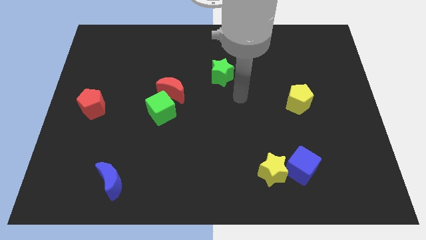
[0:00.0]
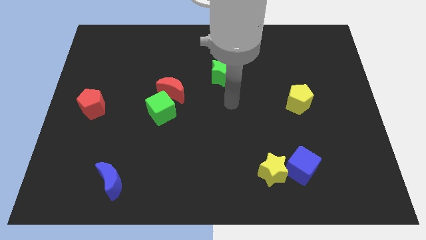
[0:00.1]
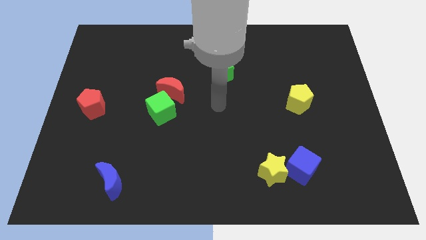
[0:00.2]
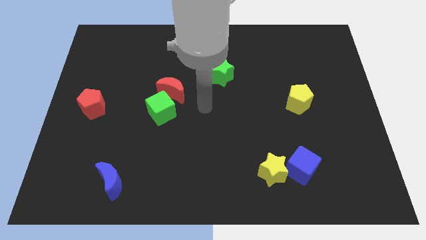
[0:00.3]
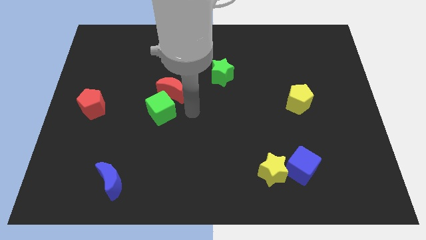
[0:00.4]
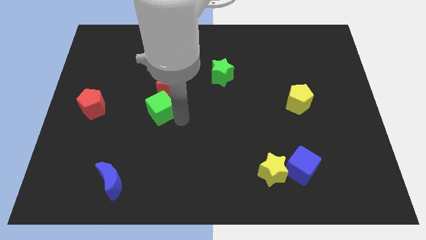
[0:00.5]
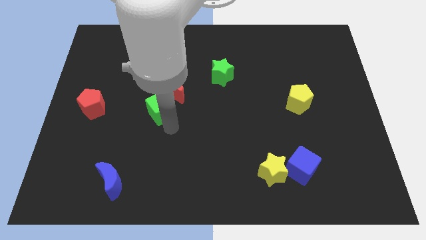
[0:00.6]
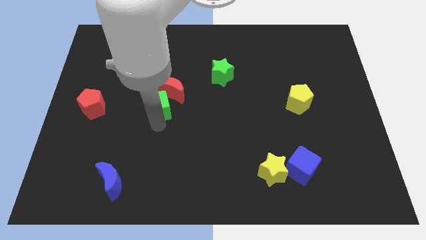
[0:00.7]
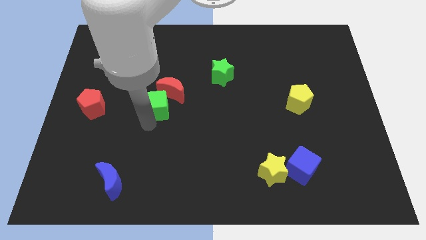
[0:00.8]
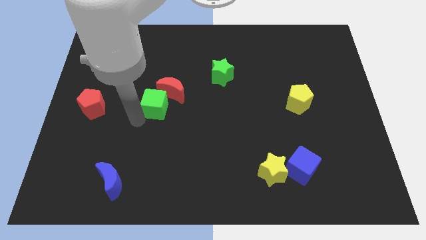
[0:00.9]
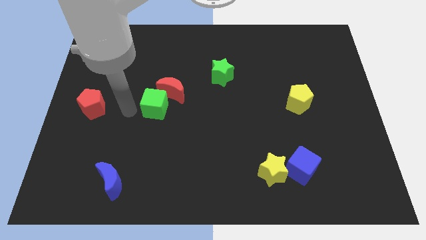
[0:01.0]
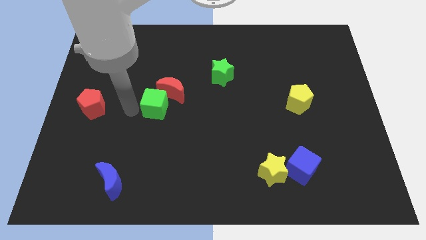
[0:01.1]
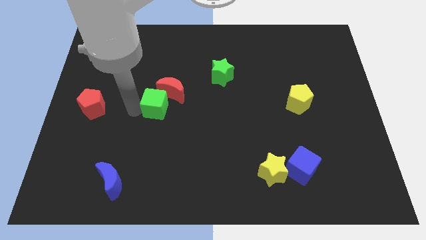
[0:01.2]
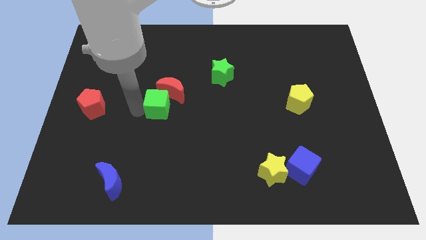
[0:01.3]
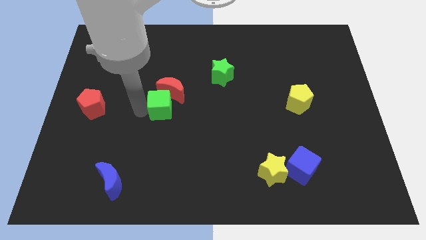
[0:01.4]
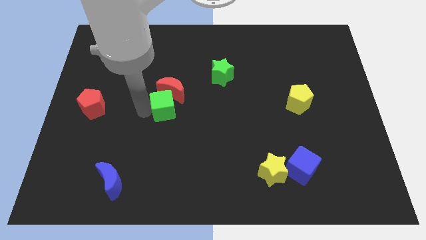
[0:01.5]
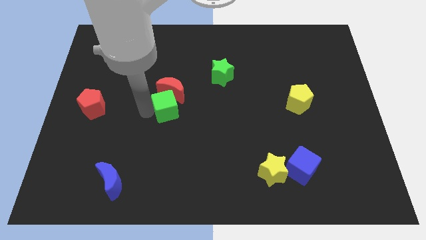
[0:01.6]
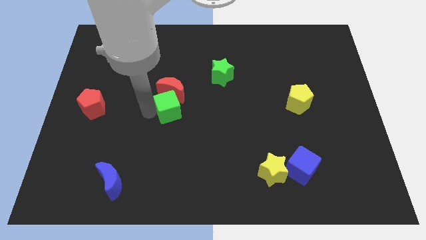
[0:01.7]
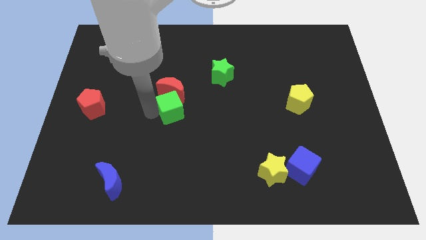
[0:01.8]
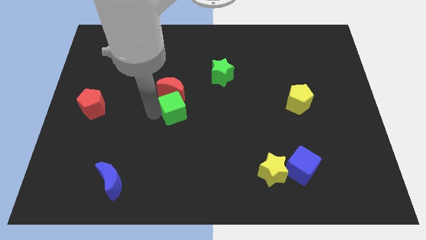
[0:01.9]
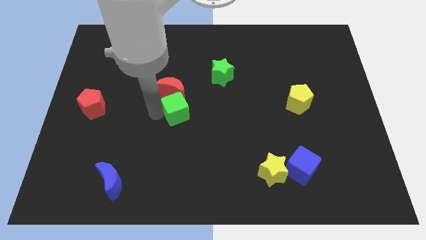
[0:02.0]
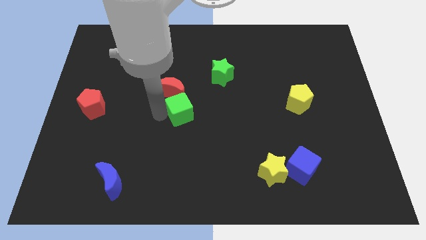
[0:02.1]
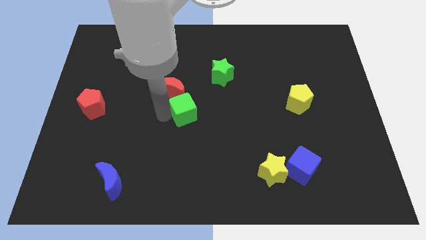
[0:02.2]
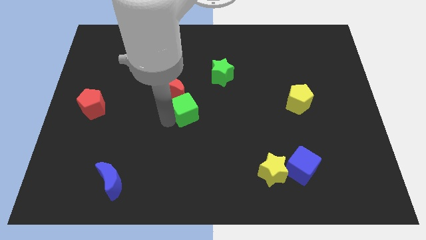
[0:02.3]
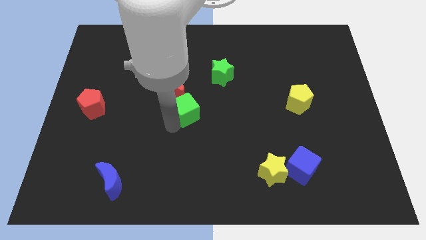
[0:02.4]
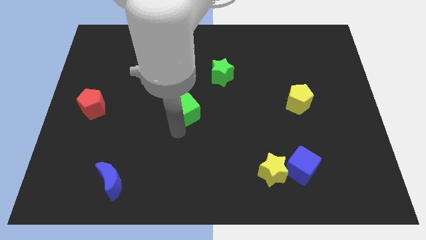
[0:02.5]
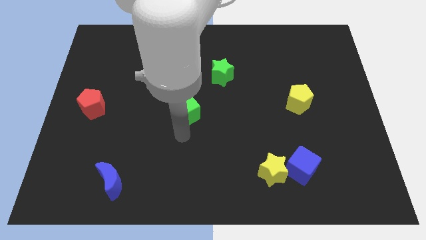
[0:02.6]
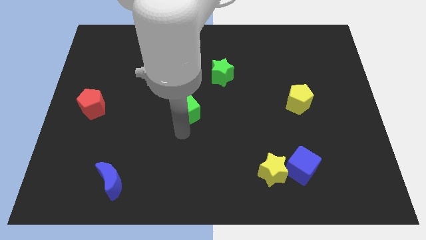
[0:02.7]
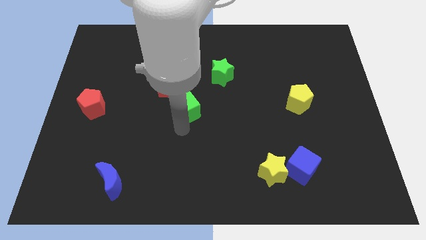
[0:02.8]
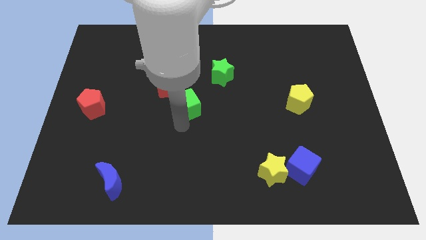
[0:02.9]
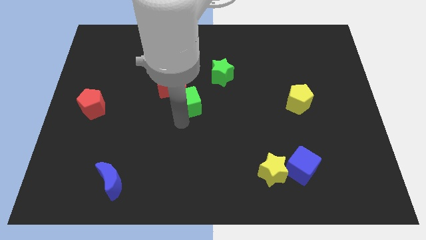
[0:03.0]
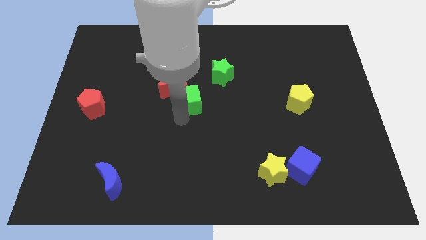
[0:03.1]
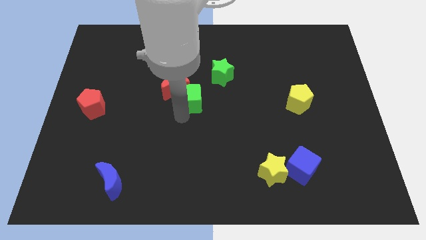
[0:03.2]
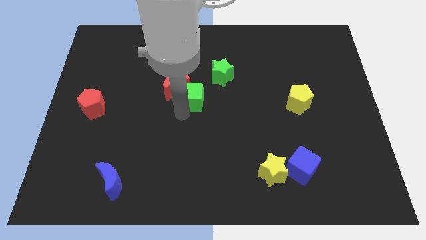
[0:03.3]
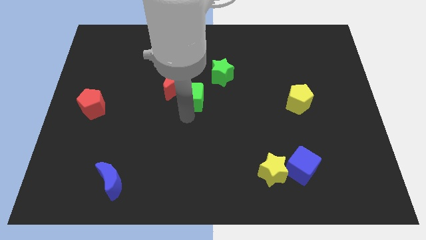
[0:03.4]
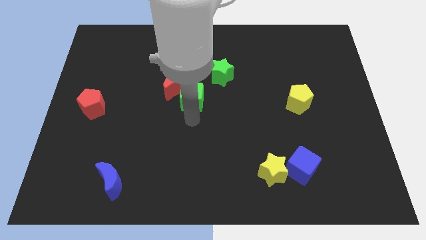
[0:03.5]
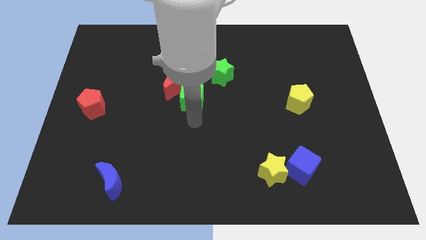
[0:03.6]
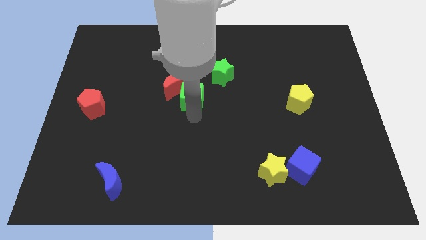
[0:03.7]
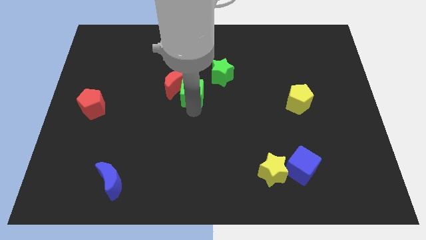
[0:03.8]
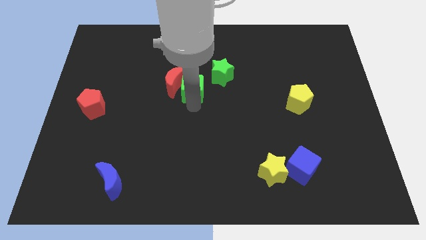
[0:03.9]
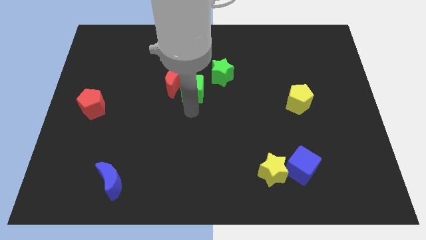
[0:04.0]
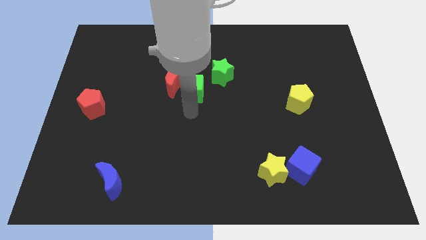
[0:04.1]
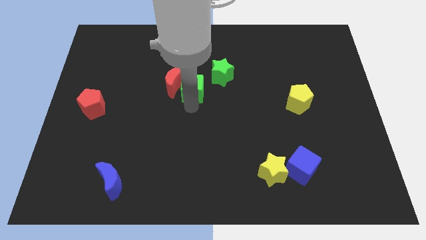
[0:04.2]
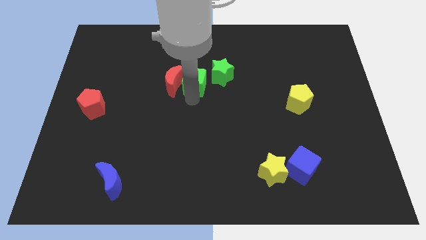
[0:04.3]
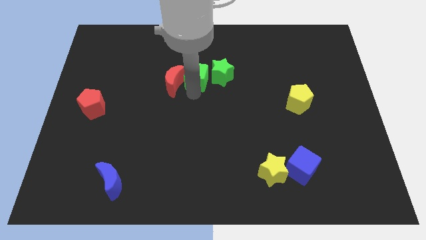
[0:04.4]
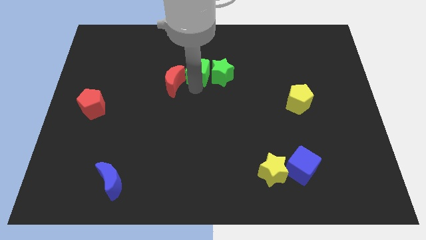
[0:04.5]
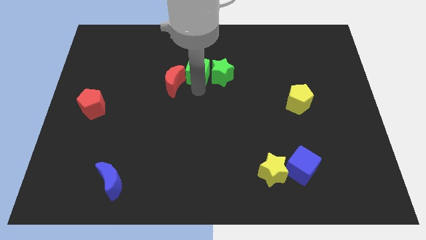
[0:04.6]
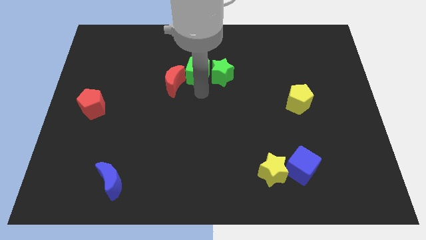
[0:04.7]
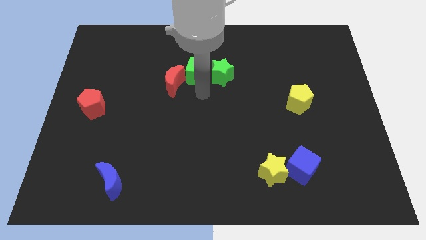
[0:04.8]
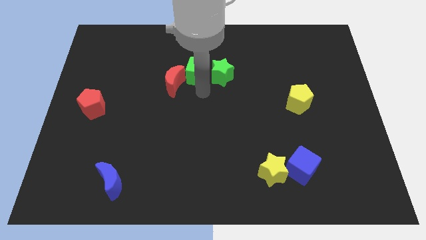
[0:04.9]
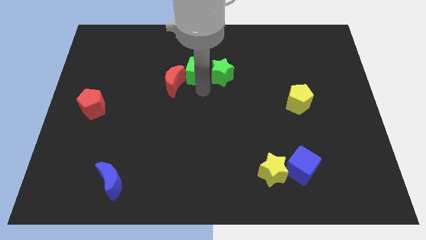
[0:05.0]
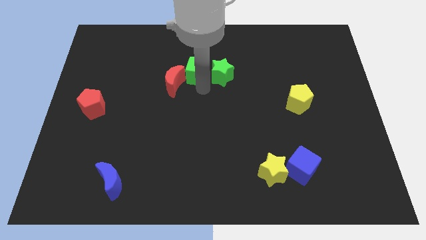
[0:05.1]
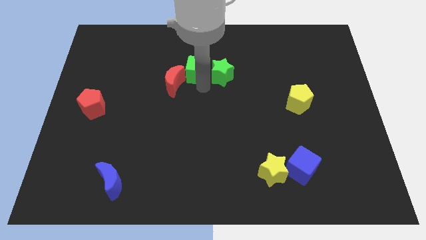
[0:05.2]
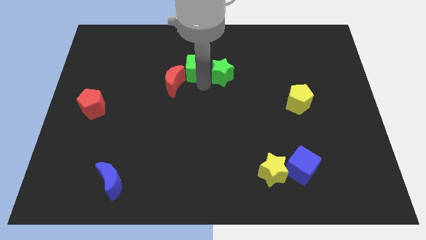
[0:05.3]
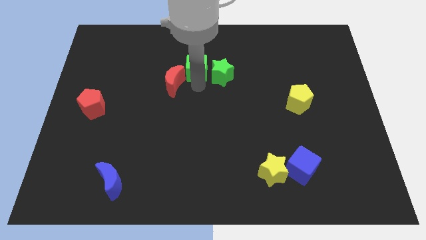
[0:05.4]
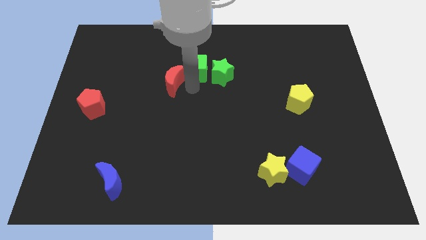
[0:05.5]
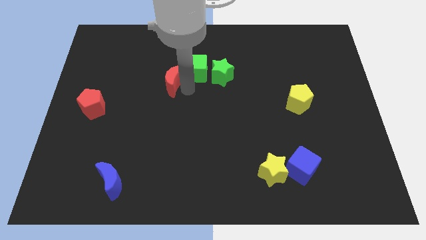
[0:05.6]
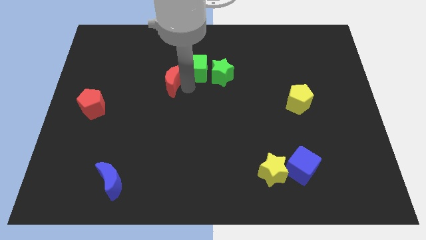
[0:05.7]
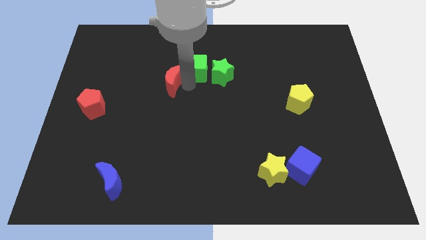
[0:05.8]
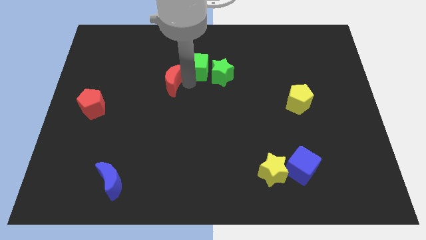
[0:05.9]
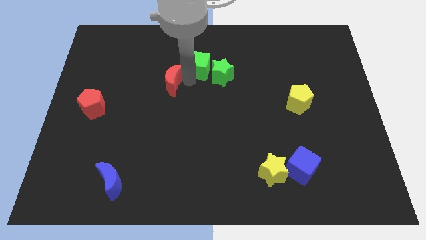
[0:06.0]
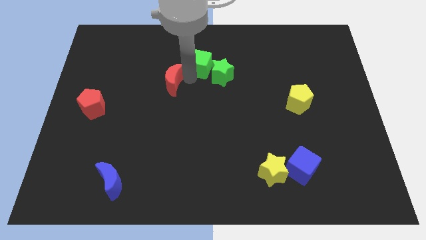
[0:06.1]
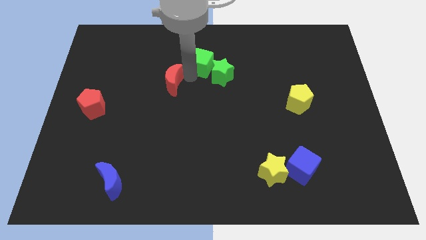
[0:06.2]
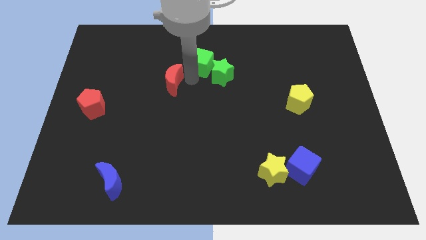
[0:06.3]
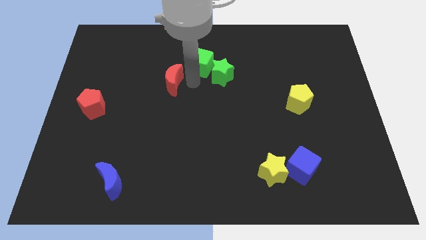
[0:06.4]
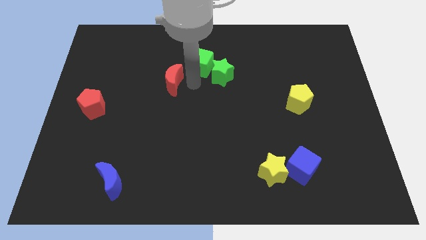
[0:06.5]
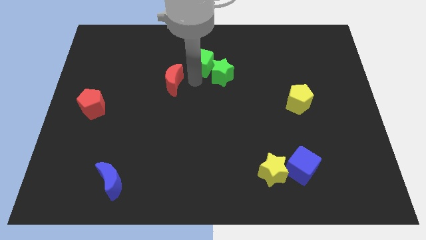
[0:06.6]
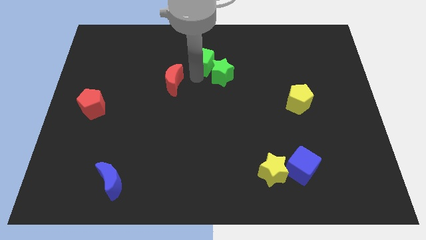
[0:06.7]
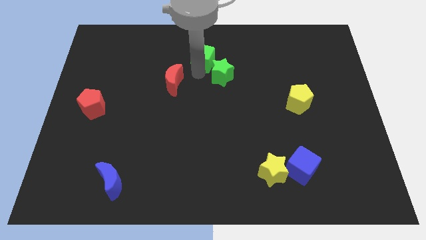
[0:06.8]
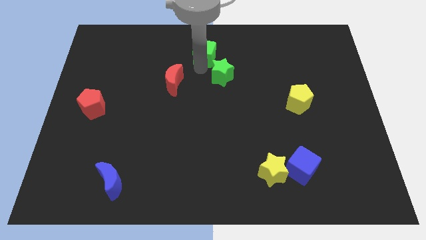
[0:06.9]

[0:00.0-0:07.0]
move the green cube to the towards your base
